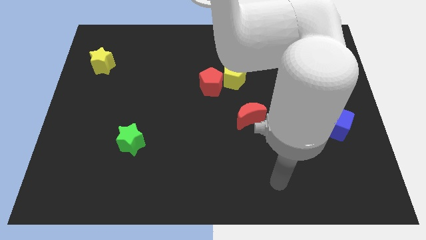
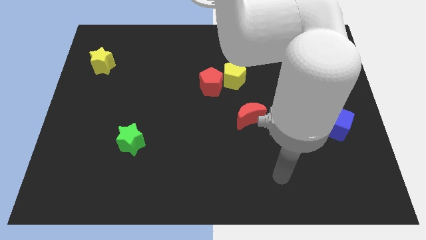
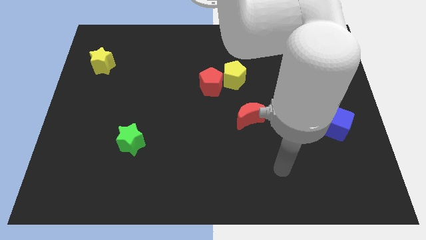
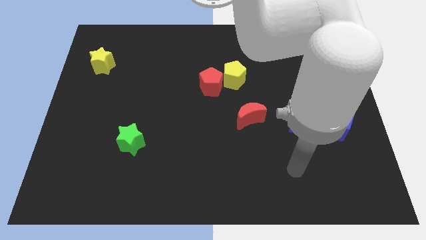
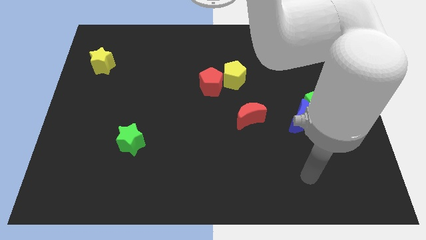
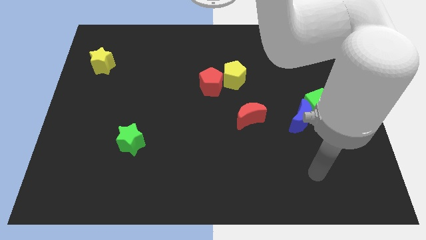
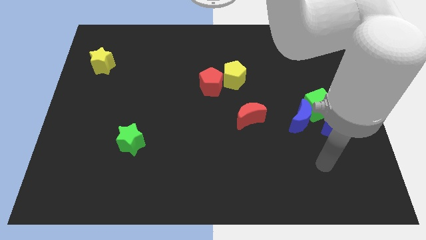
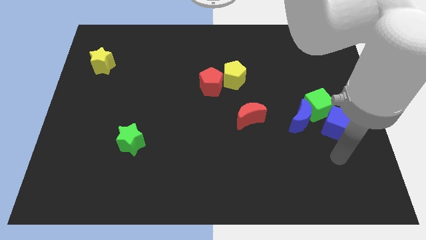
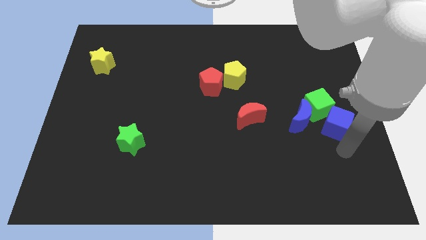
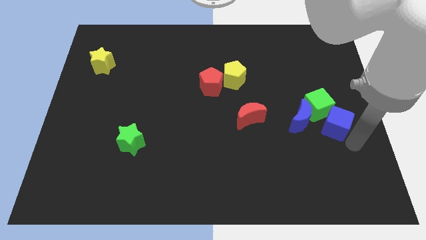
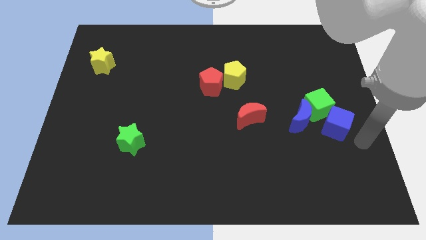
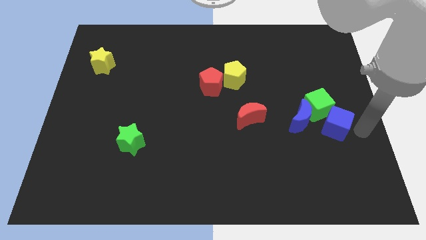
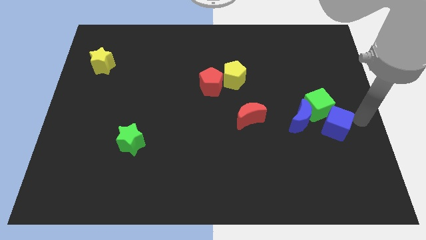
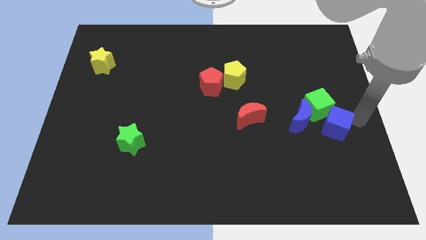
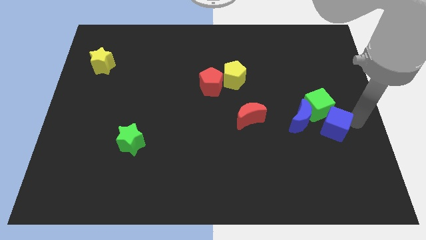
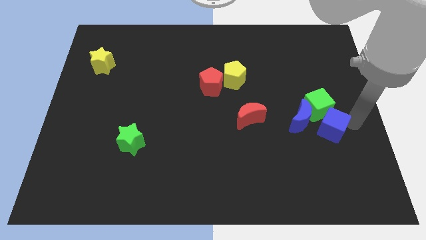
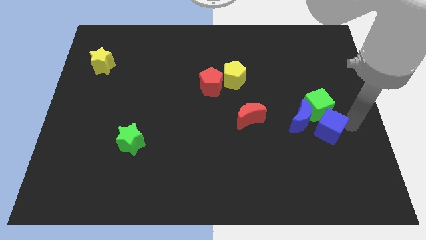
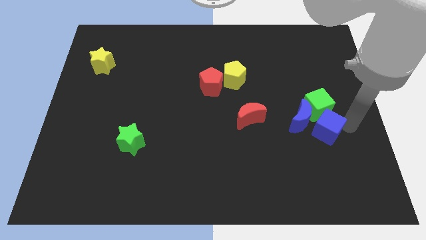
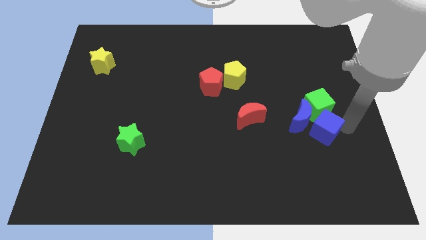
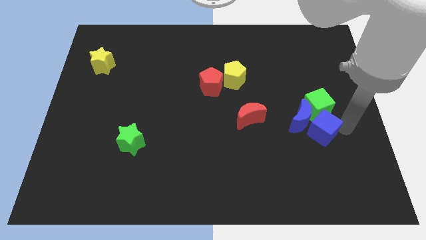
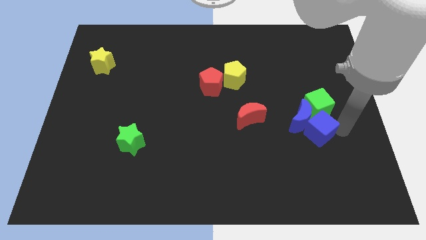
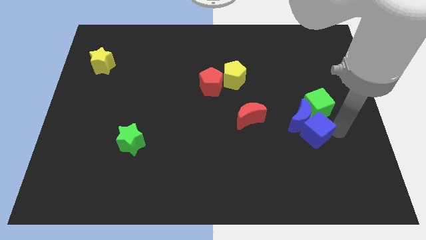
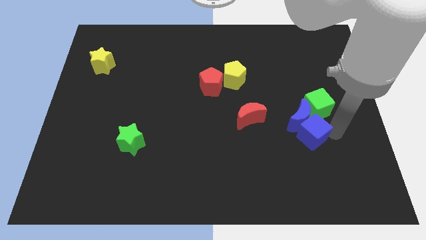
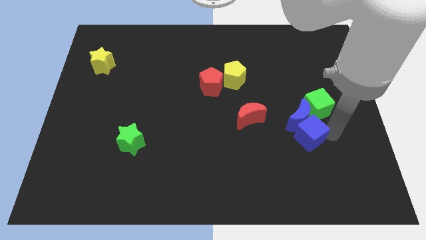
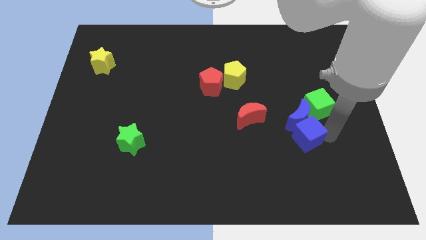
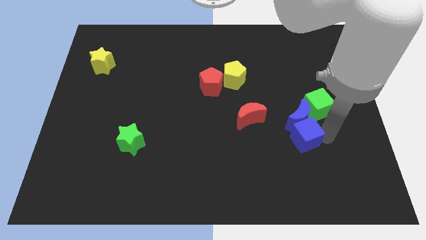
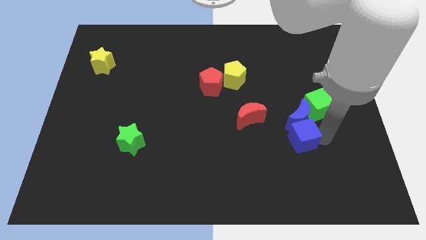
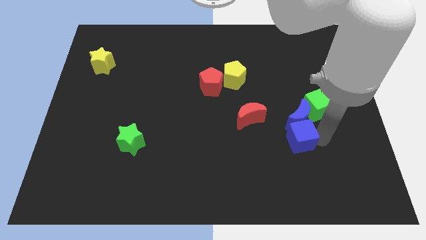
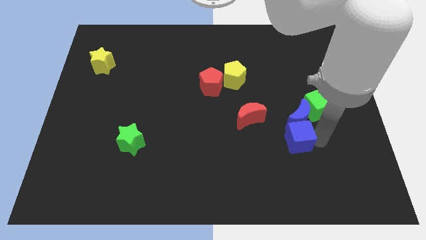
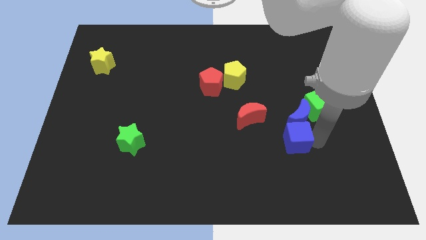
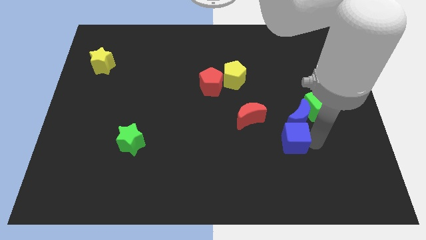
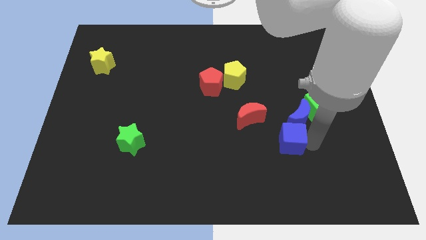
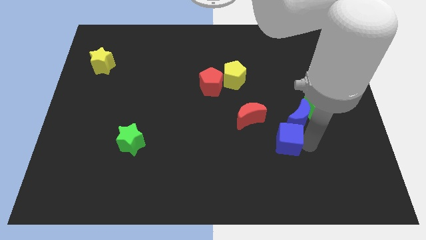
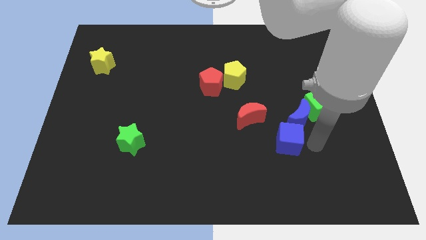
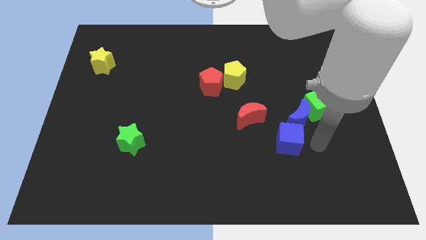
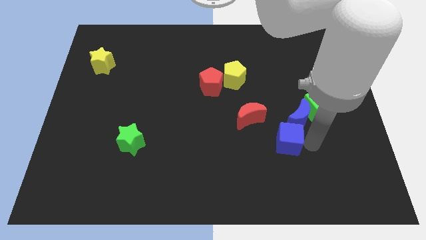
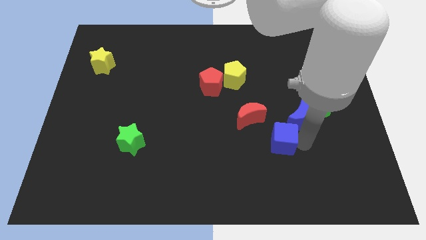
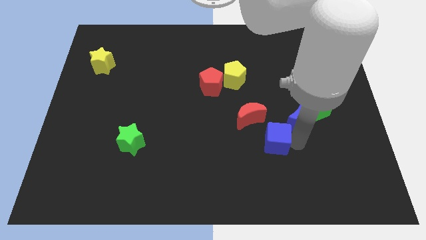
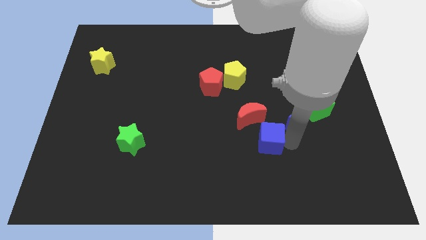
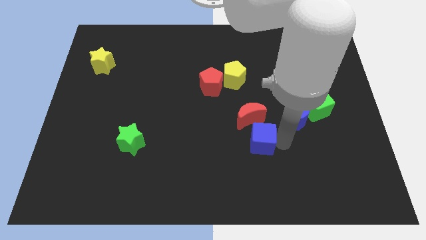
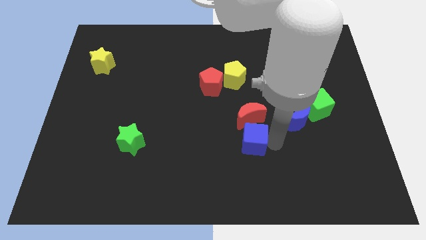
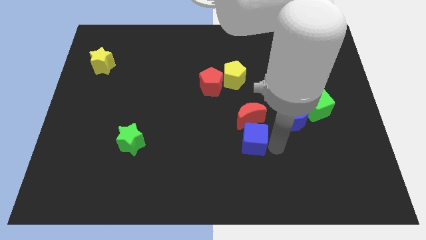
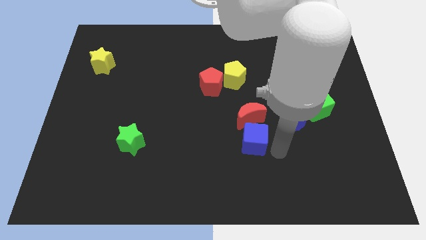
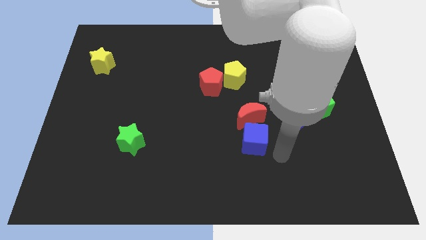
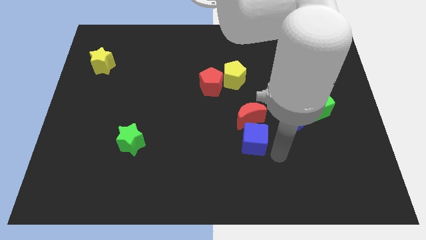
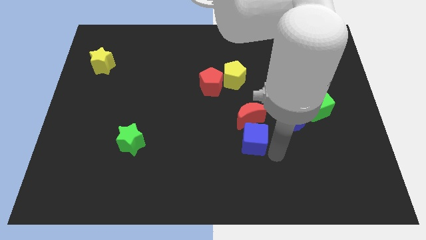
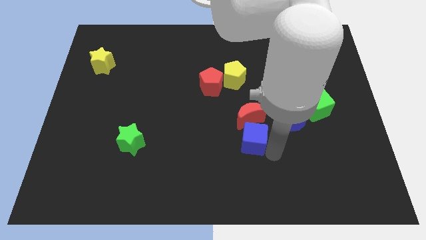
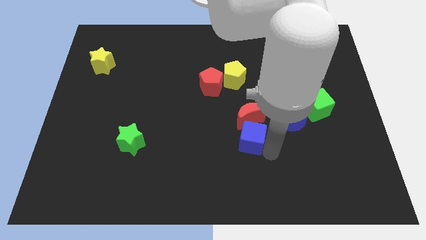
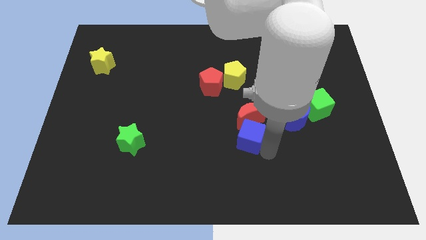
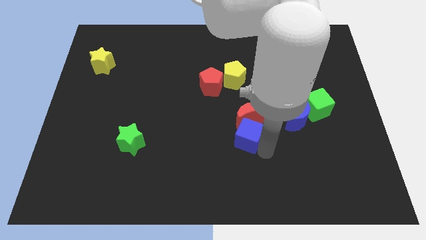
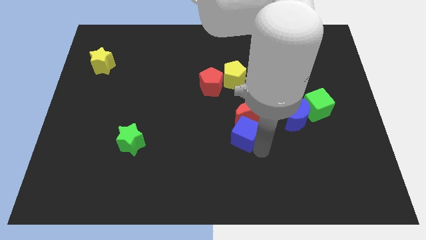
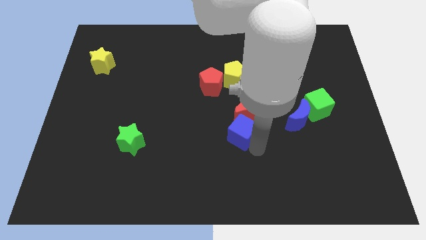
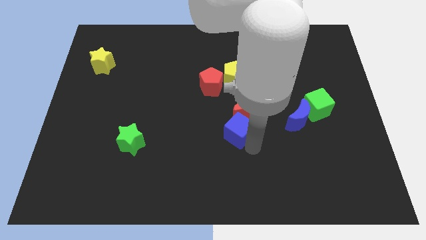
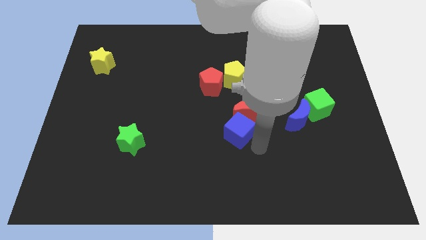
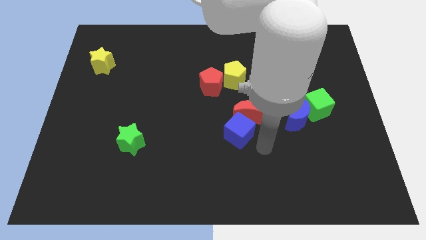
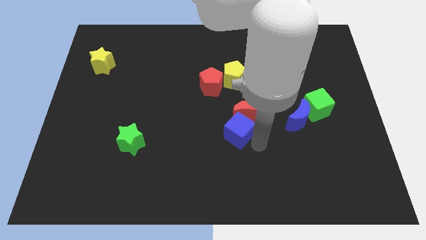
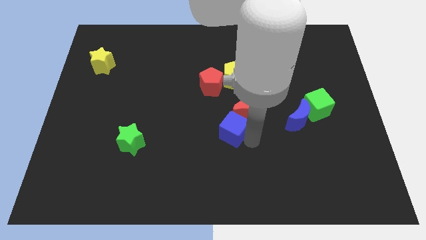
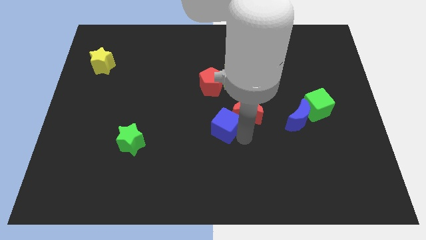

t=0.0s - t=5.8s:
move the blue cube to the bottom side of the red pentagon
